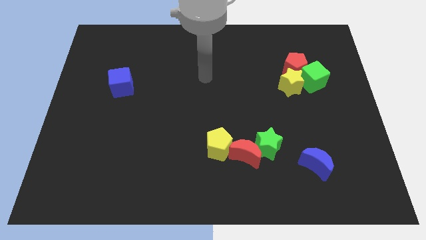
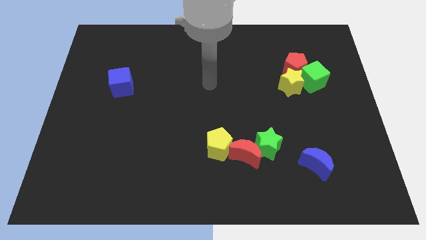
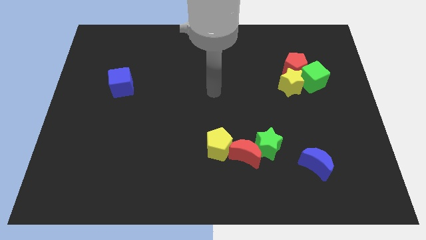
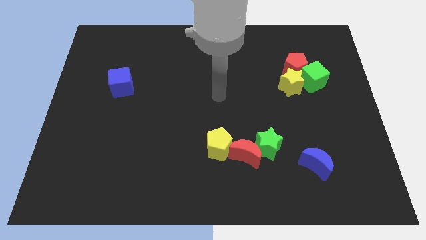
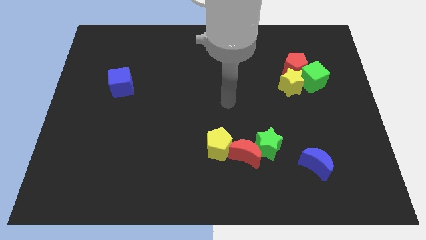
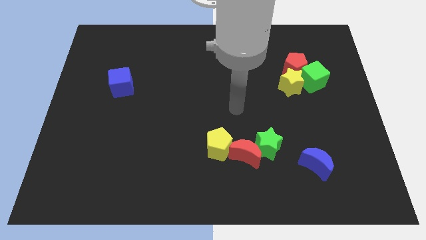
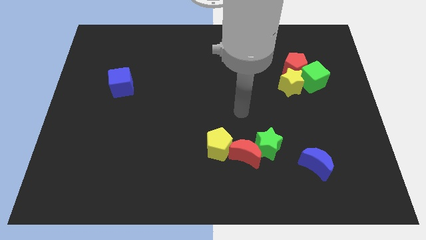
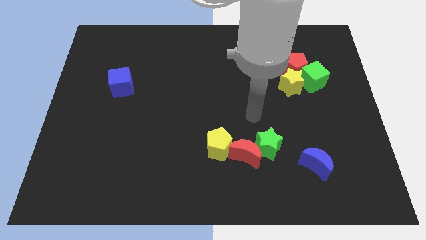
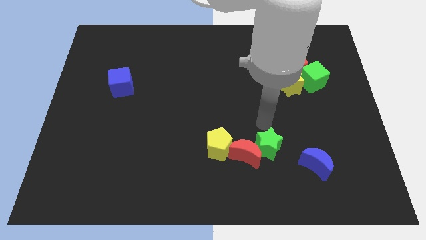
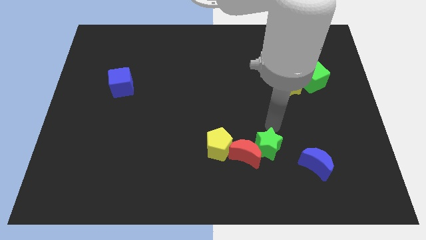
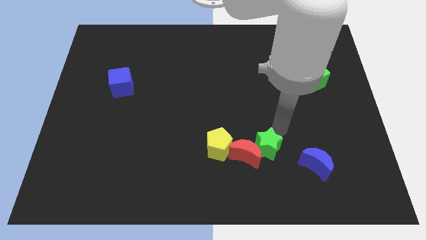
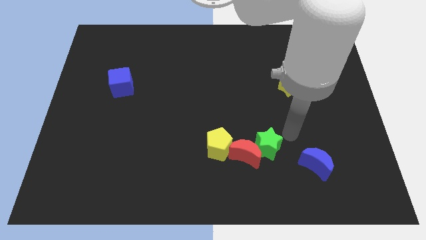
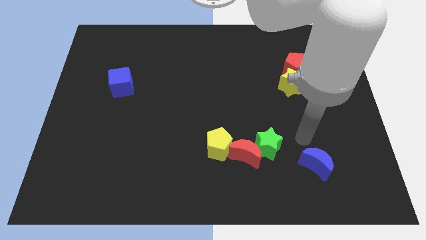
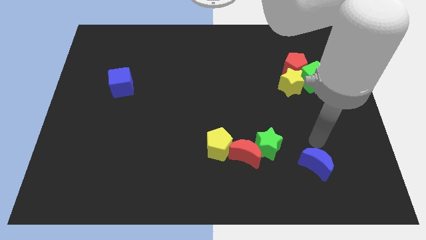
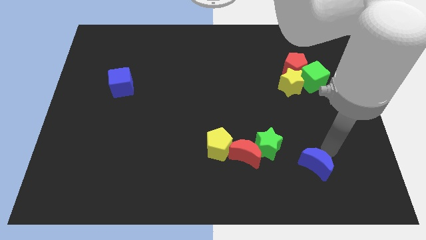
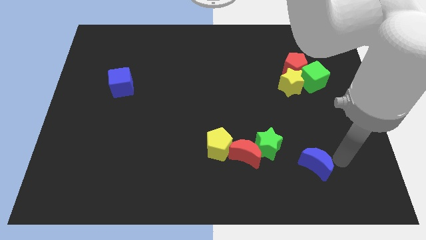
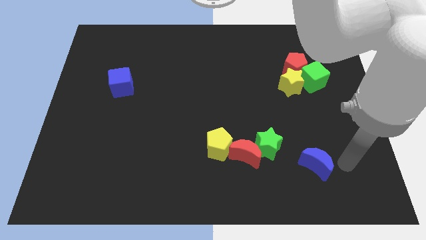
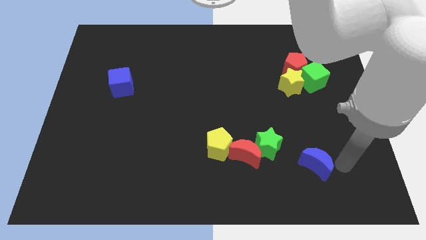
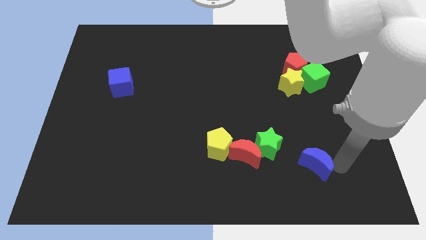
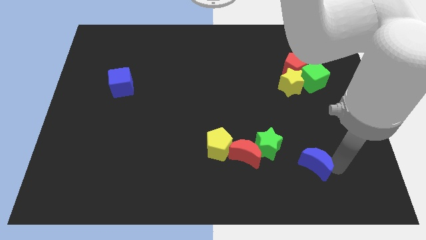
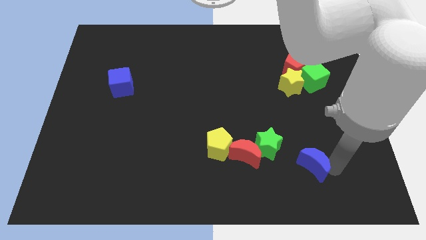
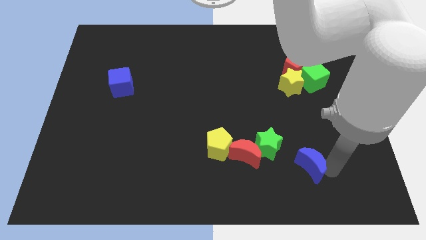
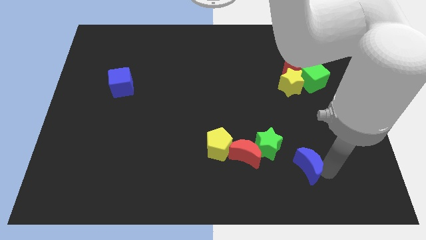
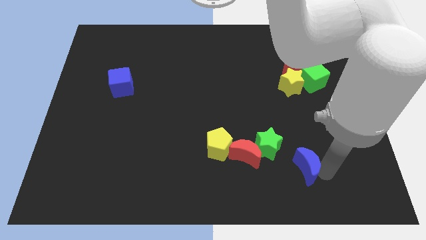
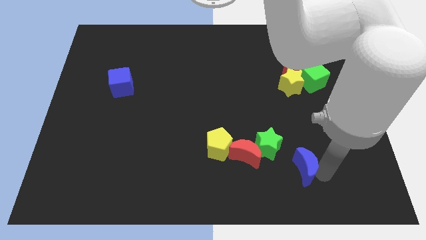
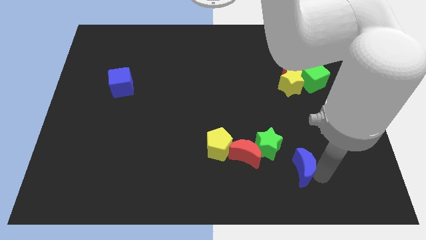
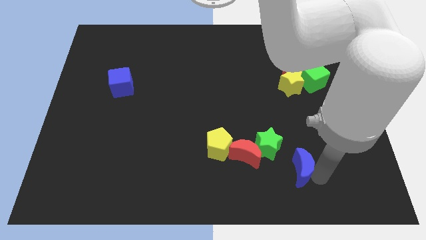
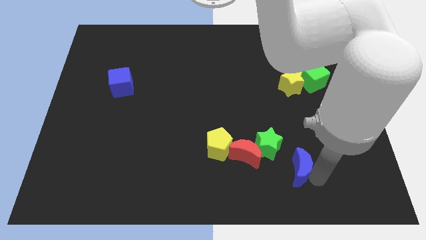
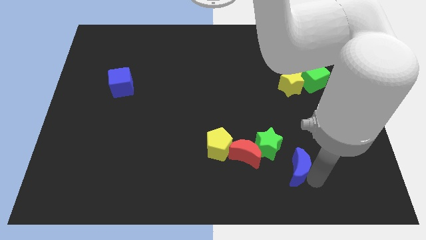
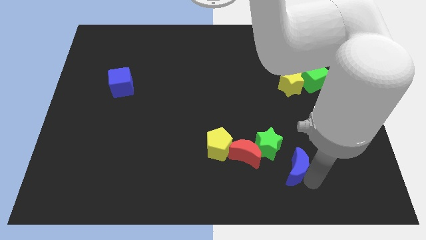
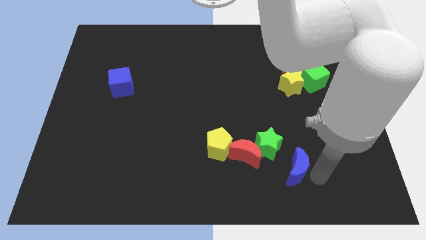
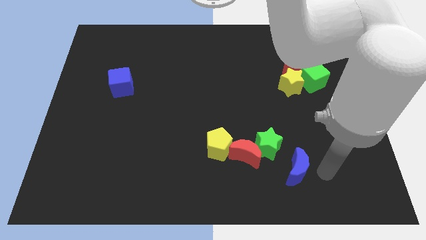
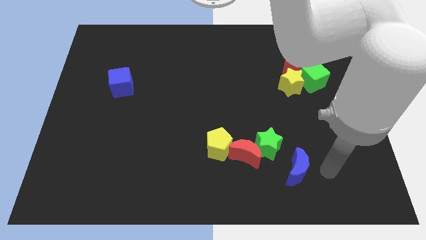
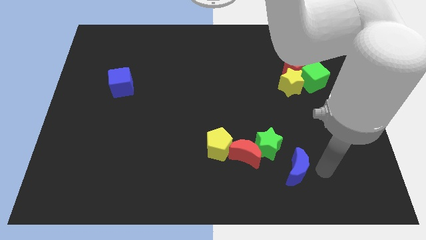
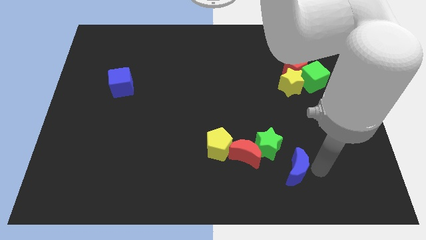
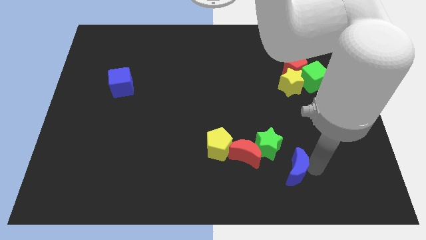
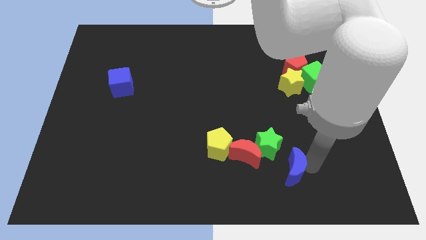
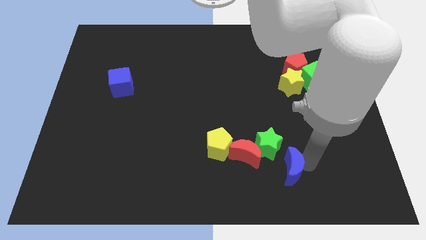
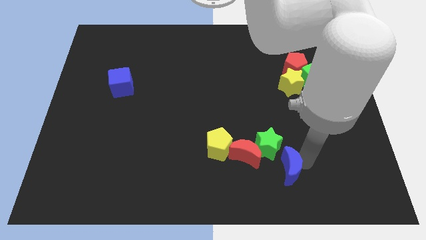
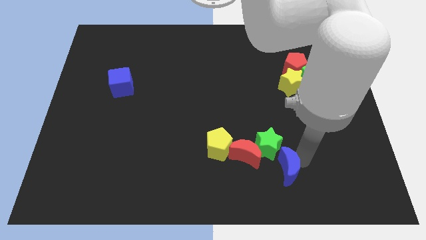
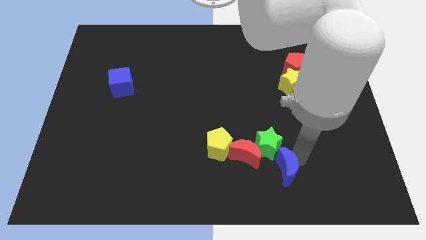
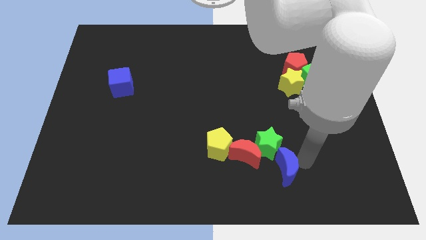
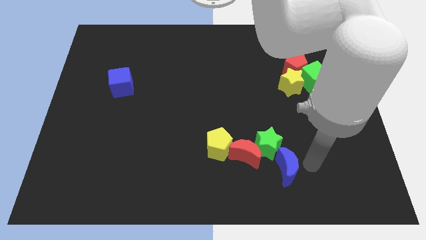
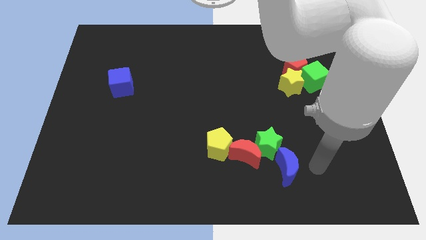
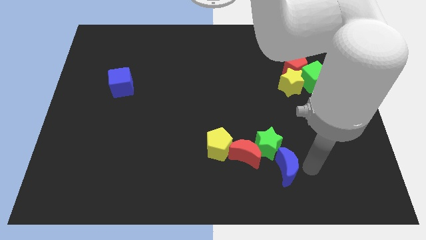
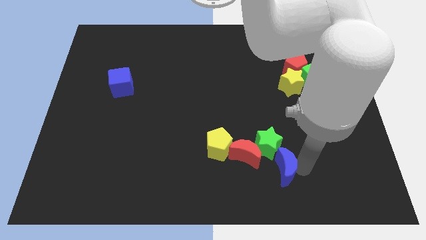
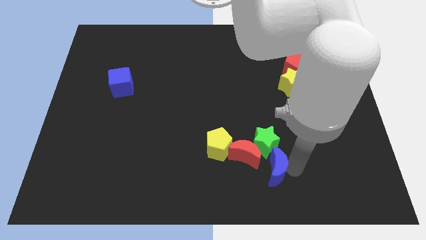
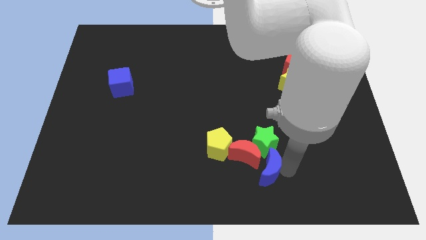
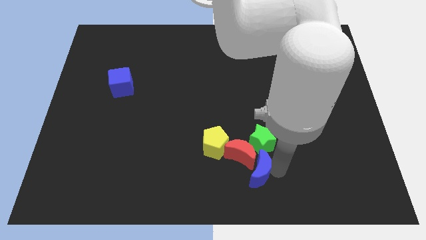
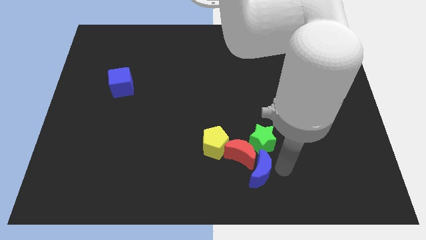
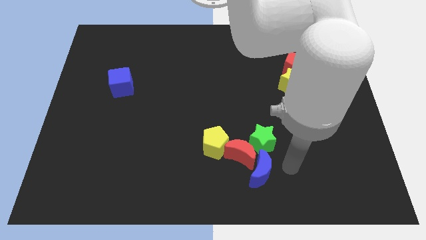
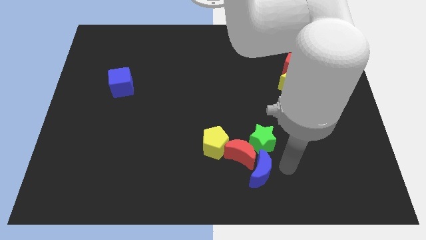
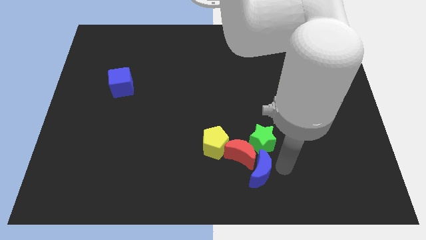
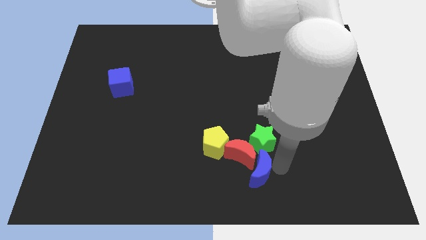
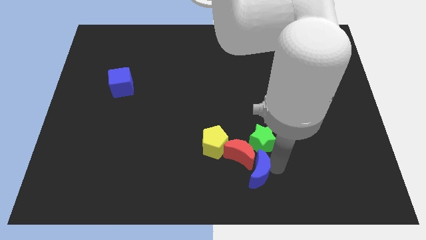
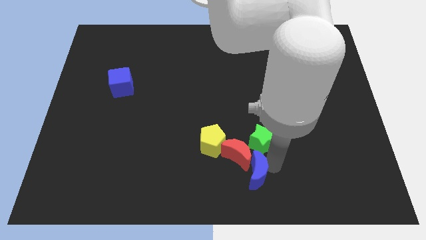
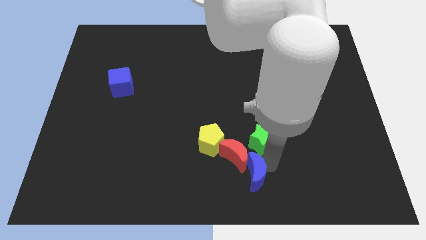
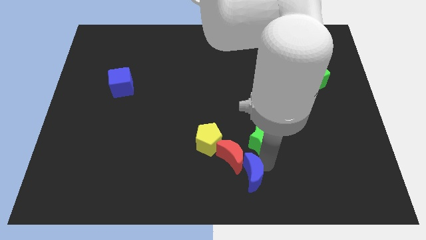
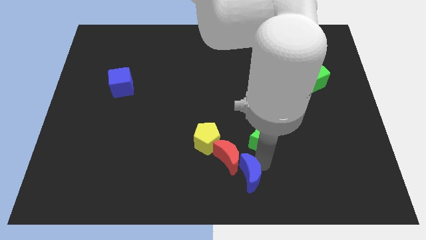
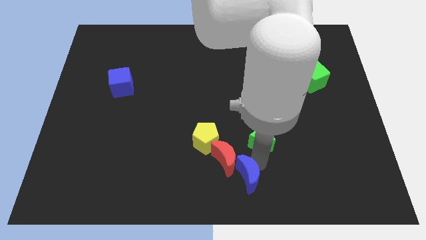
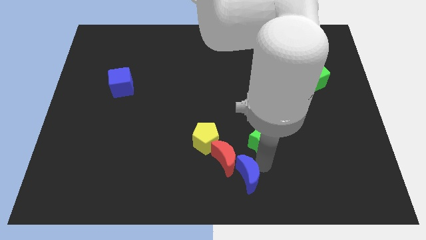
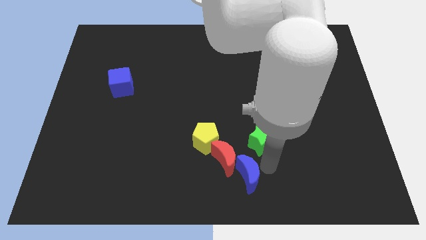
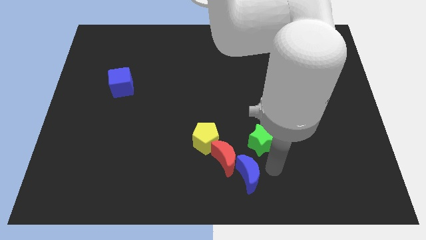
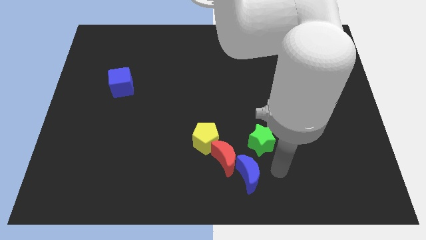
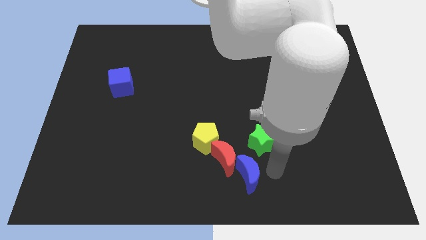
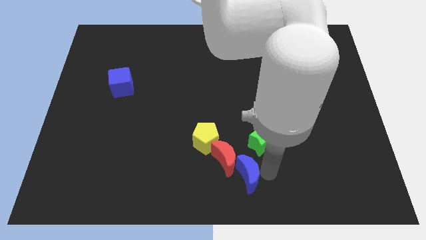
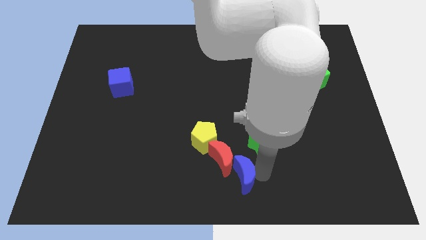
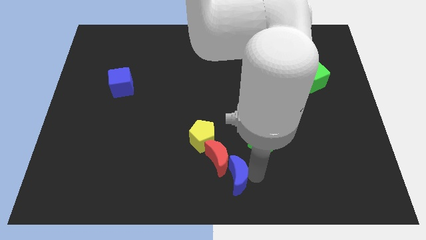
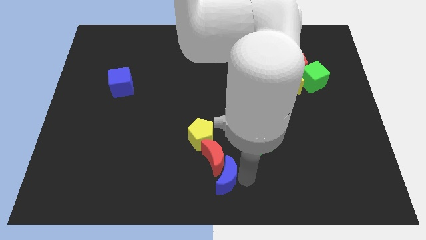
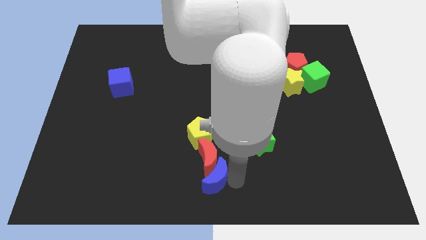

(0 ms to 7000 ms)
slide the blue moon to the left

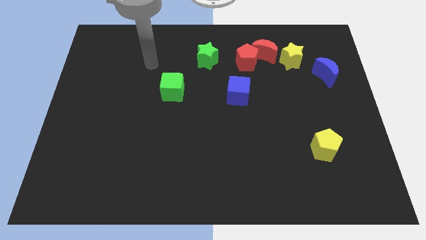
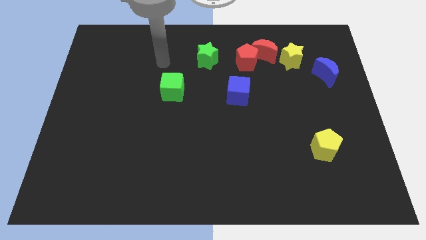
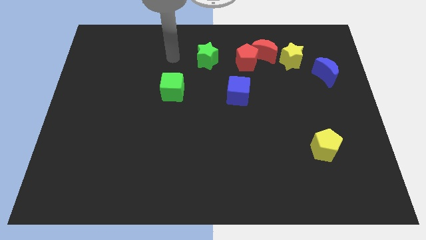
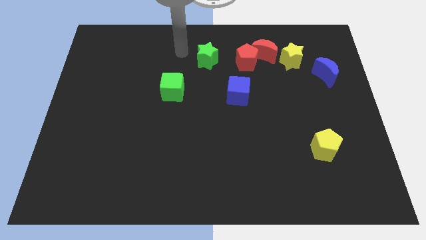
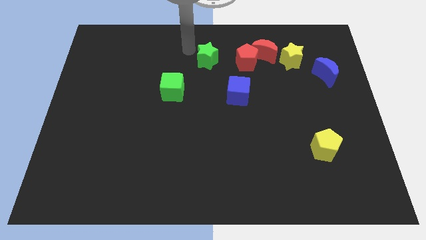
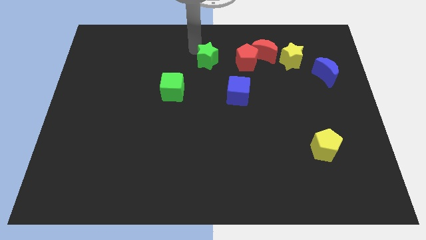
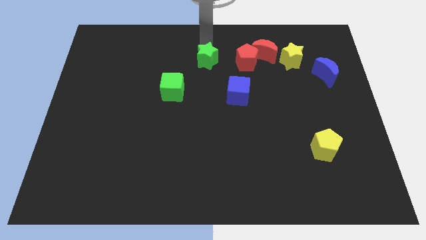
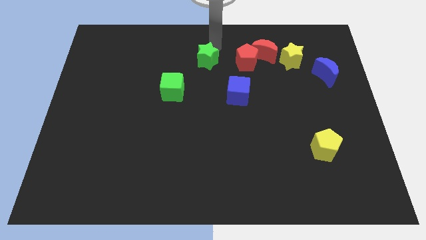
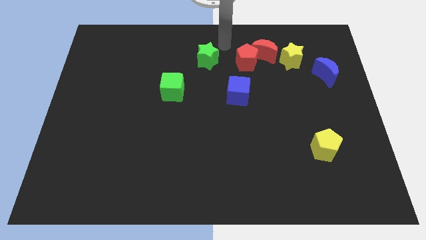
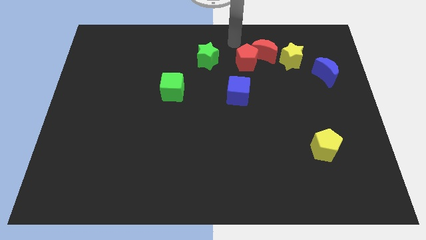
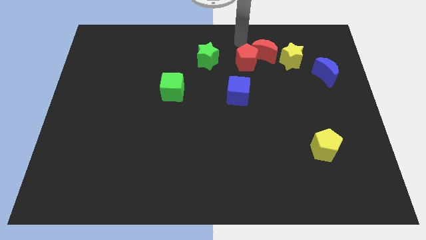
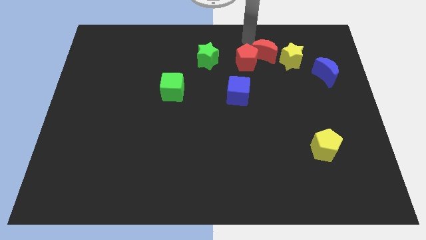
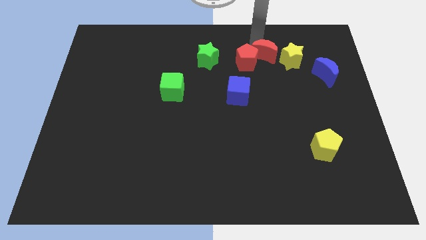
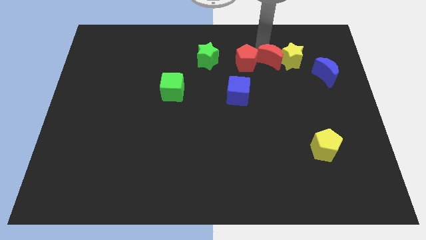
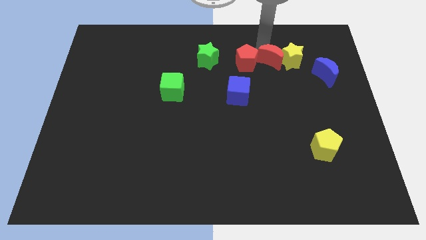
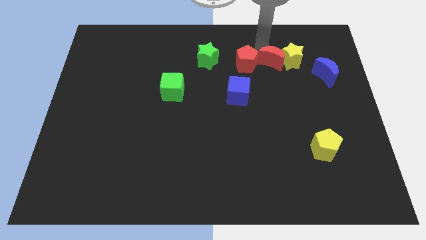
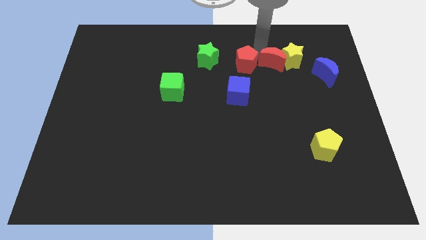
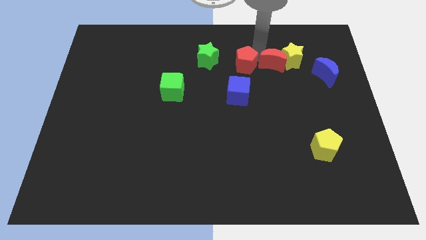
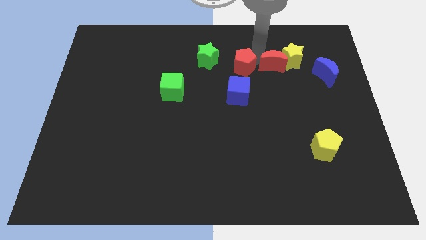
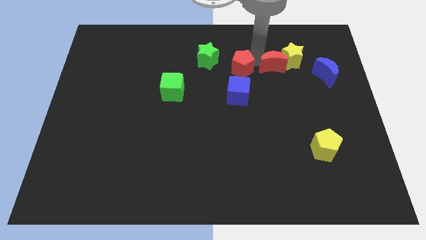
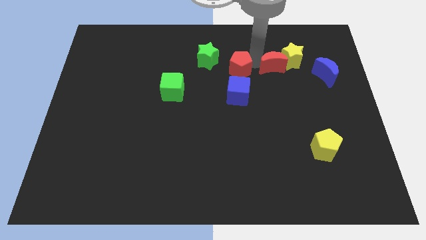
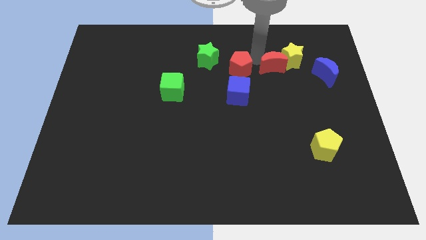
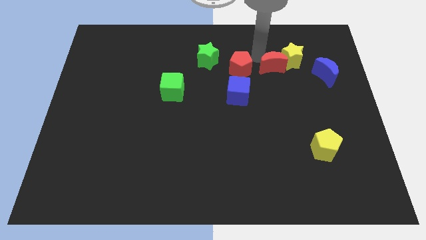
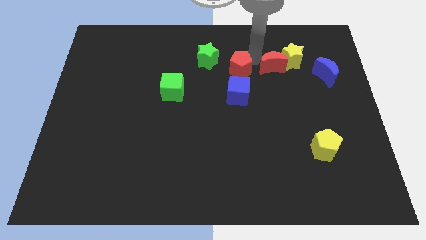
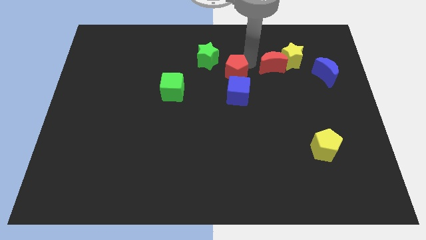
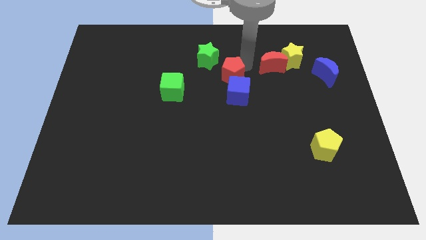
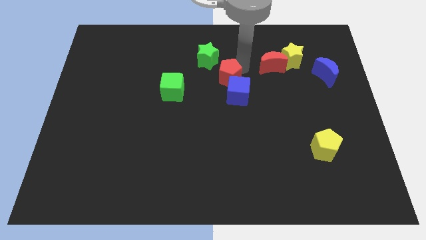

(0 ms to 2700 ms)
move the red pentagon downwards and to the left somewhat
